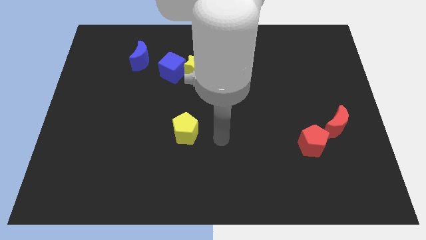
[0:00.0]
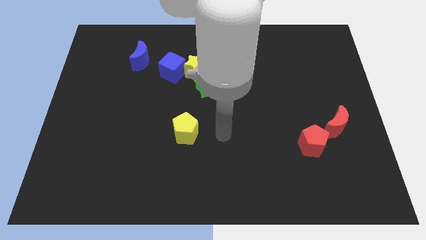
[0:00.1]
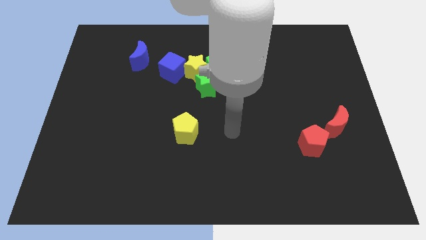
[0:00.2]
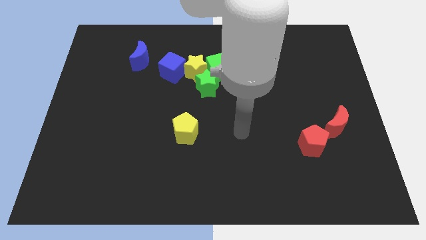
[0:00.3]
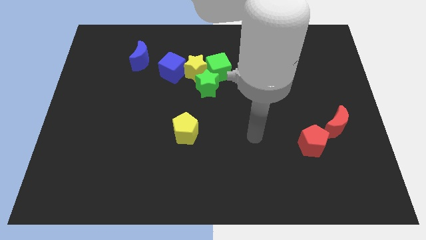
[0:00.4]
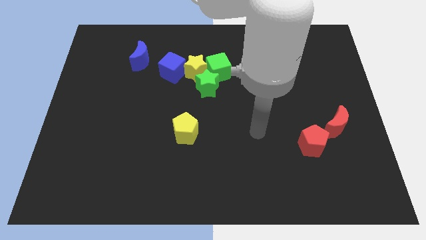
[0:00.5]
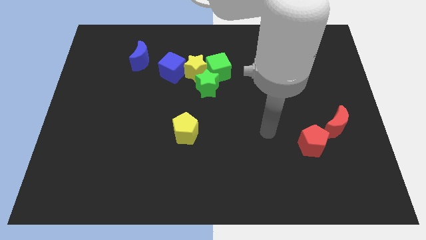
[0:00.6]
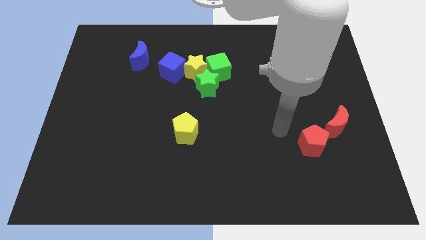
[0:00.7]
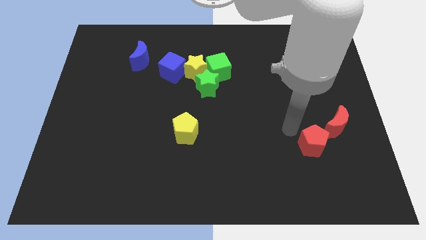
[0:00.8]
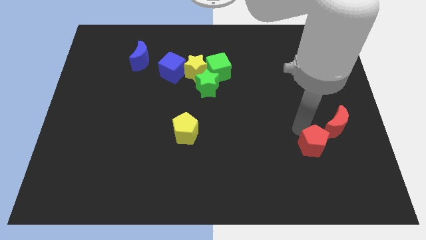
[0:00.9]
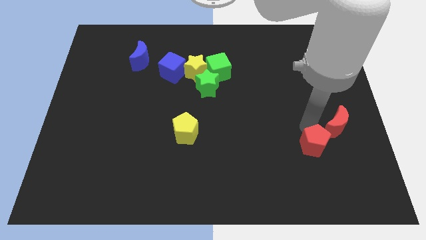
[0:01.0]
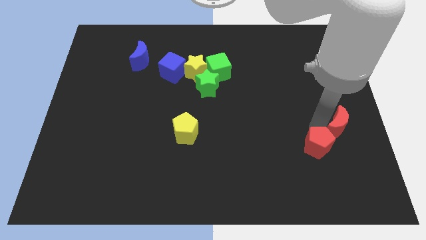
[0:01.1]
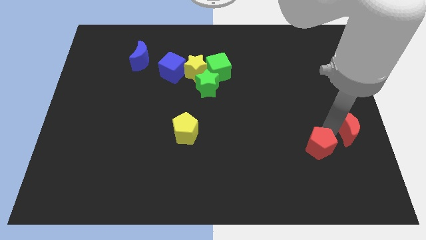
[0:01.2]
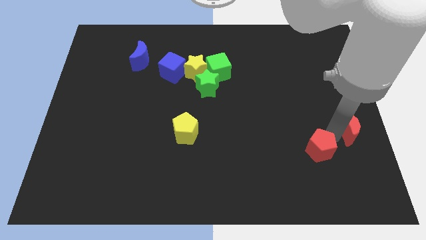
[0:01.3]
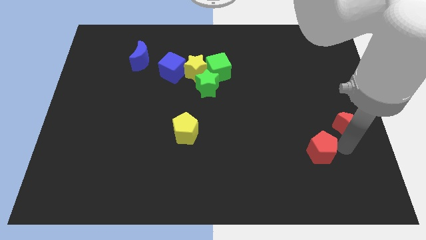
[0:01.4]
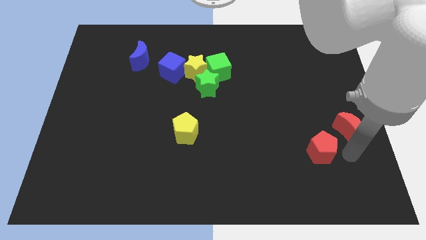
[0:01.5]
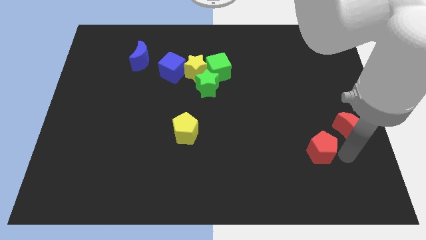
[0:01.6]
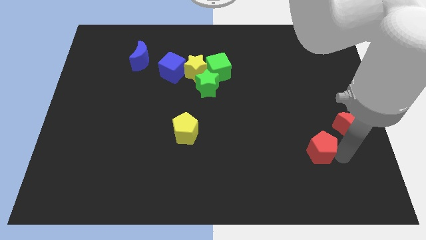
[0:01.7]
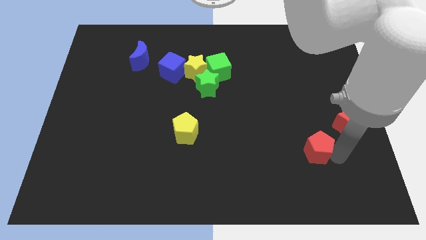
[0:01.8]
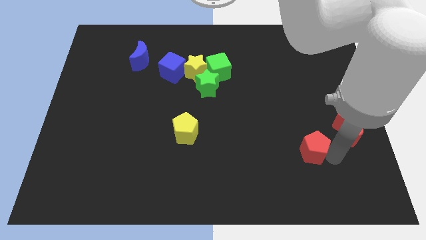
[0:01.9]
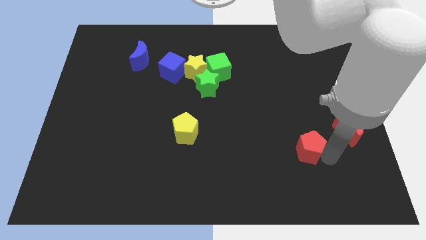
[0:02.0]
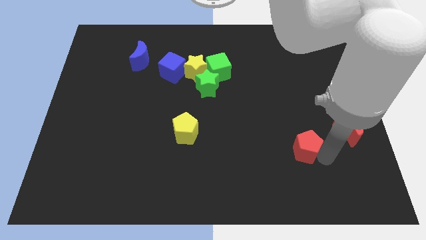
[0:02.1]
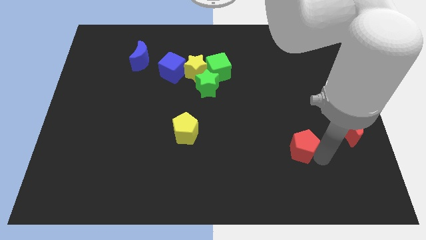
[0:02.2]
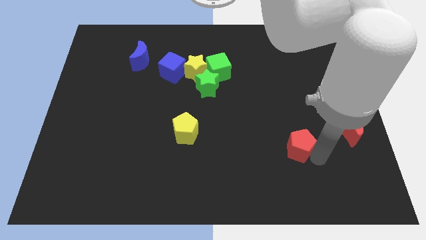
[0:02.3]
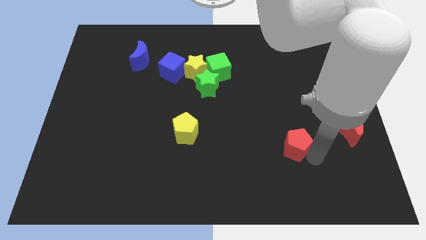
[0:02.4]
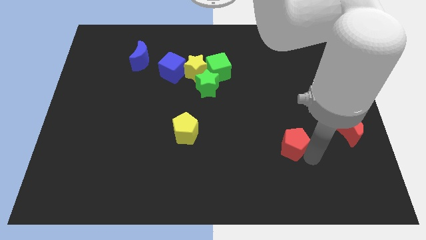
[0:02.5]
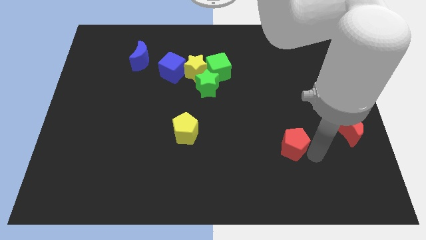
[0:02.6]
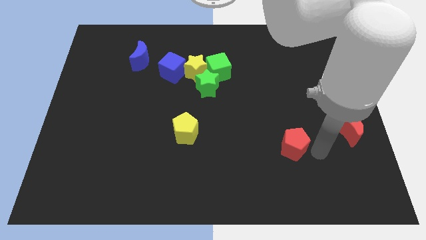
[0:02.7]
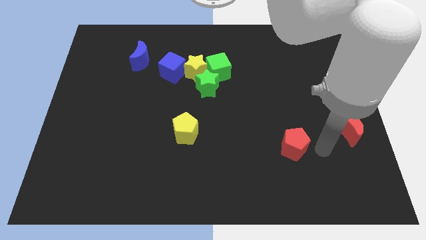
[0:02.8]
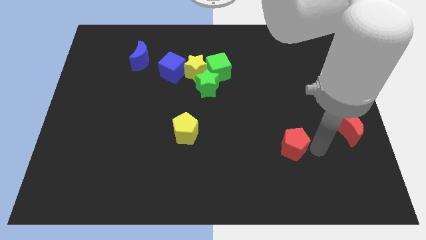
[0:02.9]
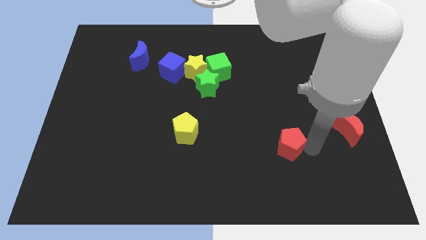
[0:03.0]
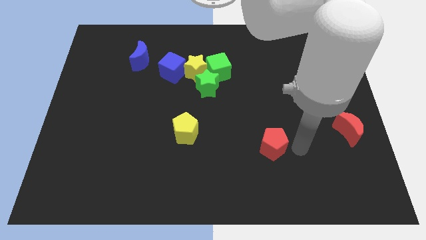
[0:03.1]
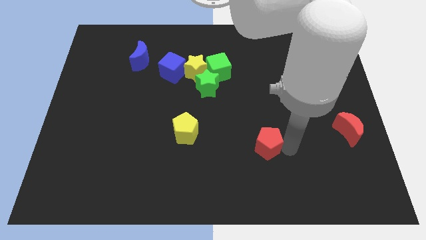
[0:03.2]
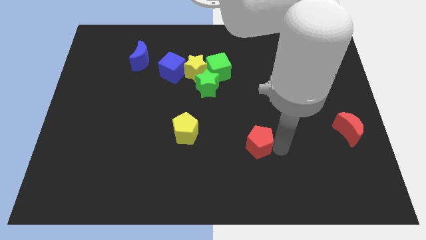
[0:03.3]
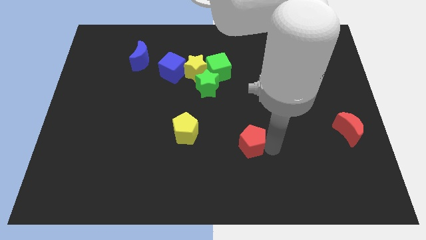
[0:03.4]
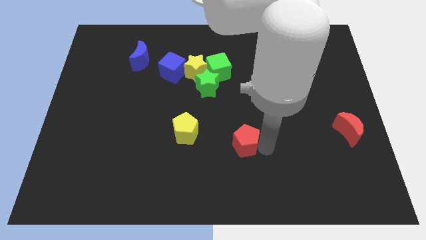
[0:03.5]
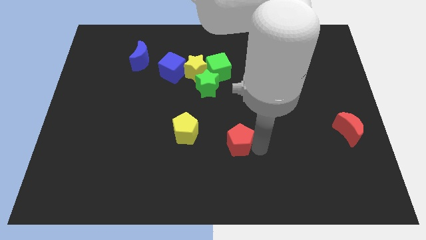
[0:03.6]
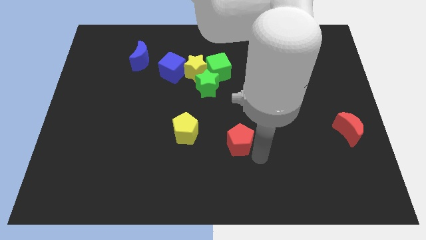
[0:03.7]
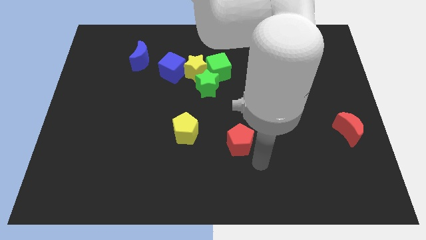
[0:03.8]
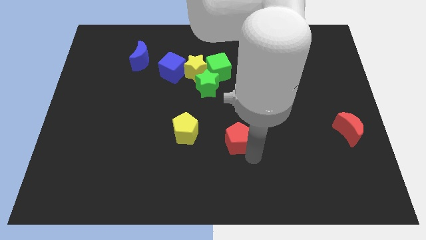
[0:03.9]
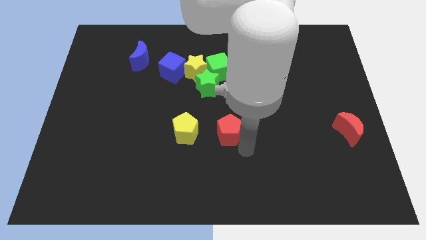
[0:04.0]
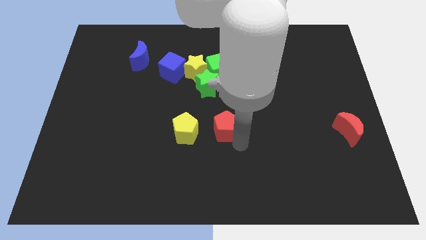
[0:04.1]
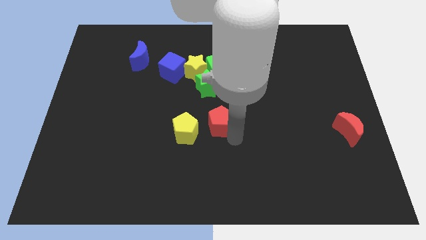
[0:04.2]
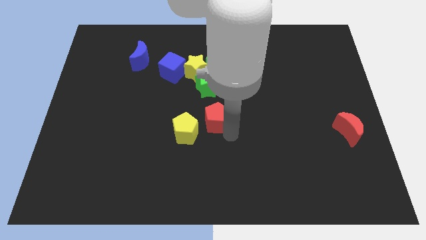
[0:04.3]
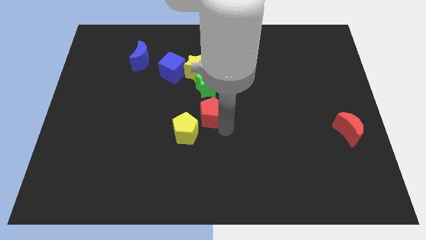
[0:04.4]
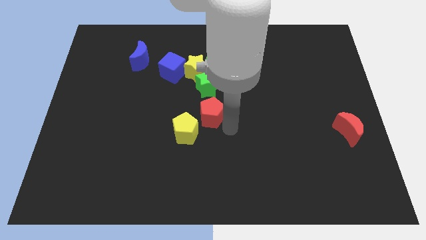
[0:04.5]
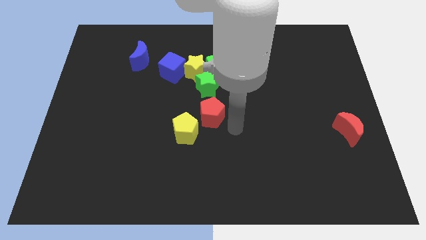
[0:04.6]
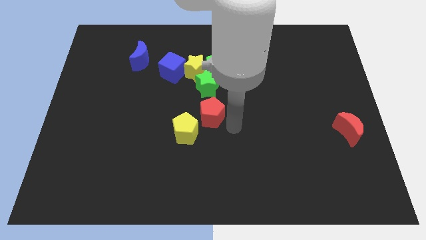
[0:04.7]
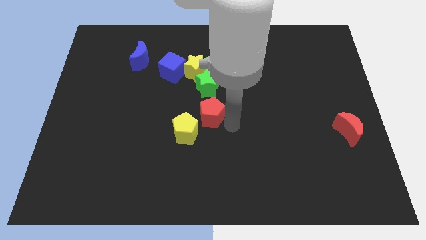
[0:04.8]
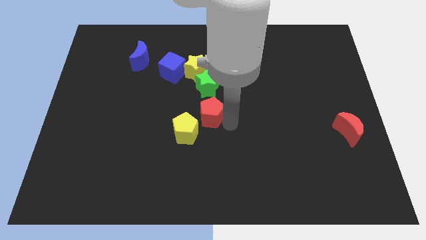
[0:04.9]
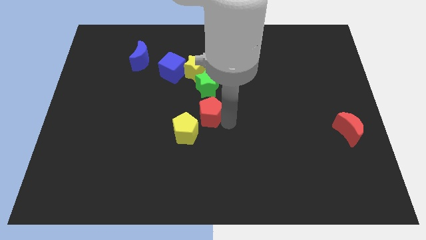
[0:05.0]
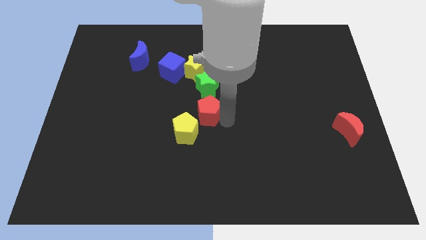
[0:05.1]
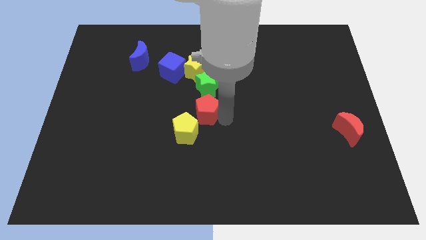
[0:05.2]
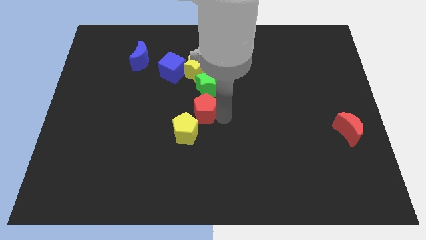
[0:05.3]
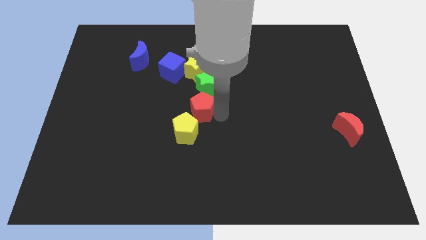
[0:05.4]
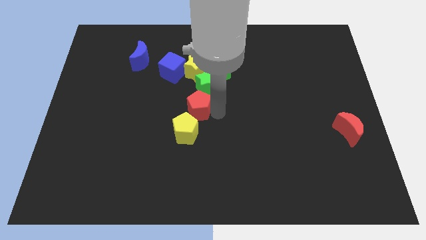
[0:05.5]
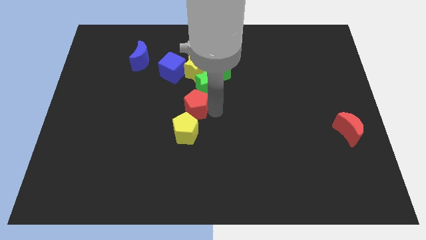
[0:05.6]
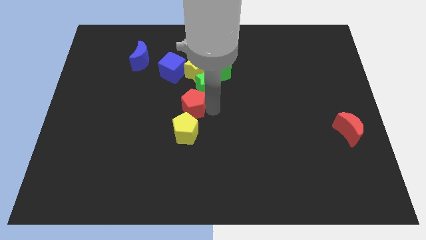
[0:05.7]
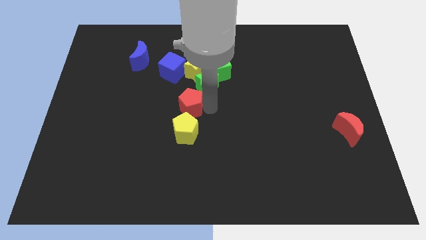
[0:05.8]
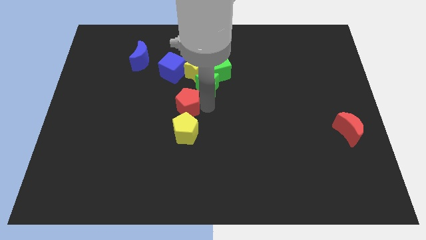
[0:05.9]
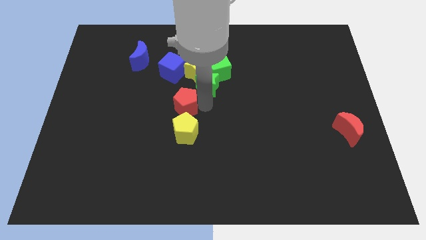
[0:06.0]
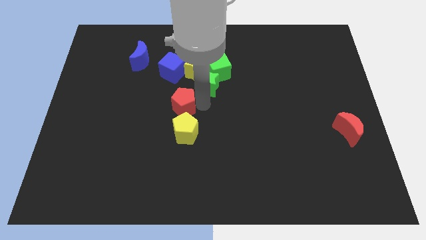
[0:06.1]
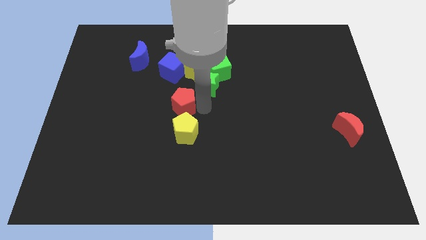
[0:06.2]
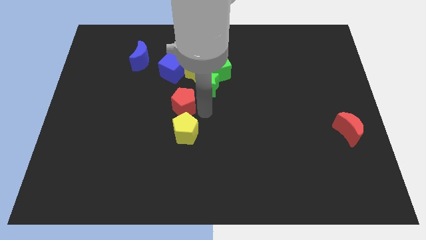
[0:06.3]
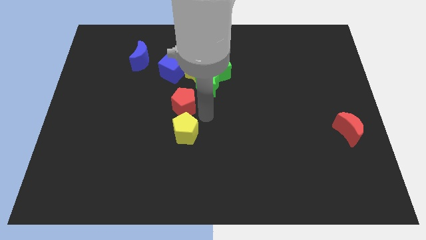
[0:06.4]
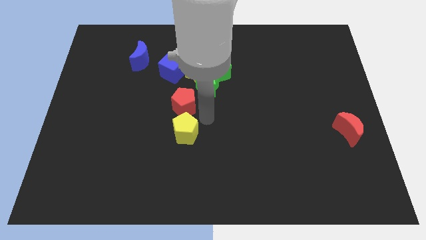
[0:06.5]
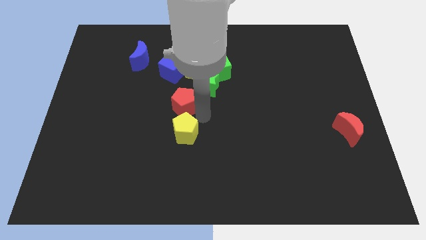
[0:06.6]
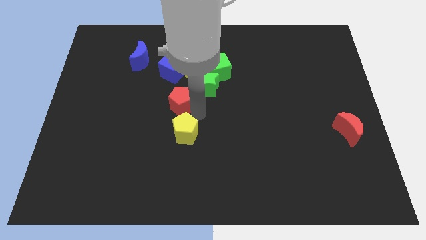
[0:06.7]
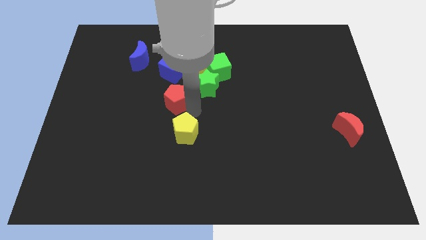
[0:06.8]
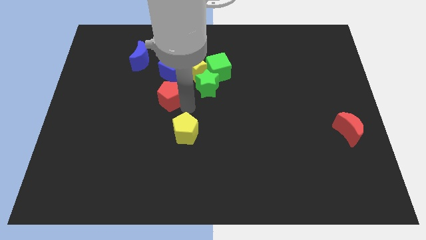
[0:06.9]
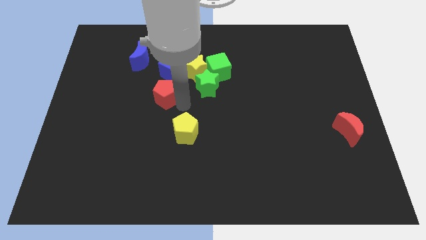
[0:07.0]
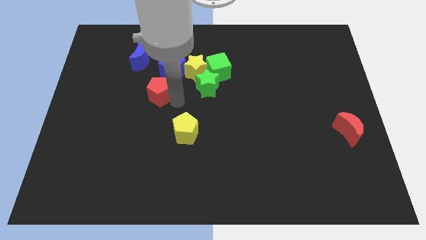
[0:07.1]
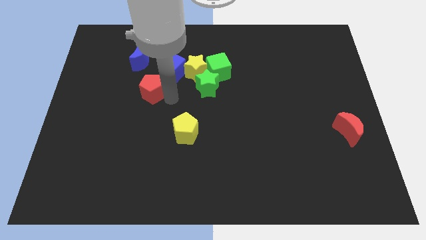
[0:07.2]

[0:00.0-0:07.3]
move the red pentagon to the bottom side of the blue moon
